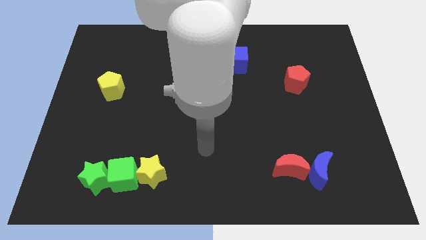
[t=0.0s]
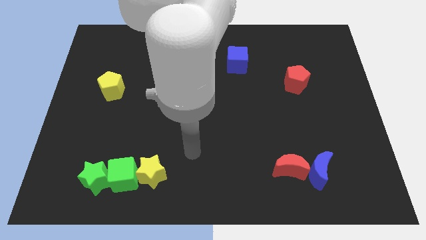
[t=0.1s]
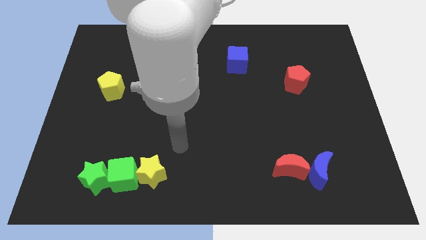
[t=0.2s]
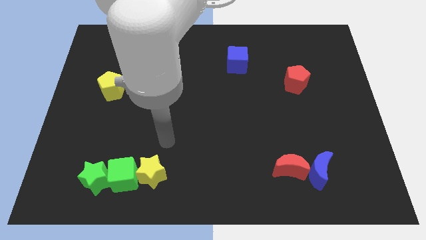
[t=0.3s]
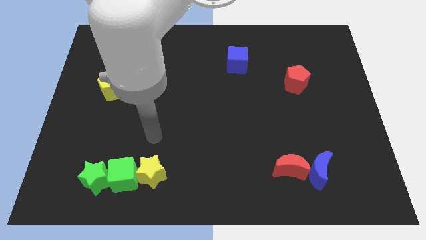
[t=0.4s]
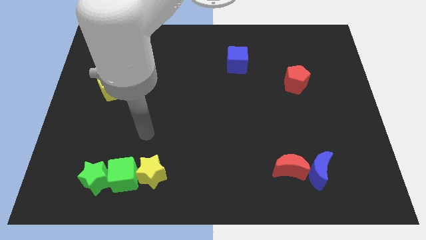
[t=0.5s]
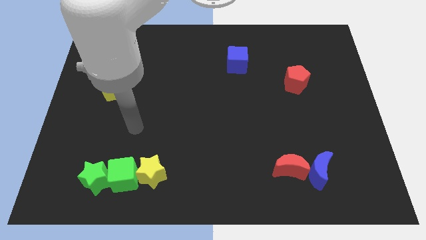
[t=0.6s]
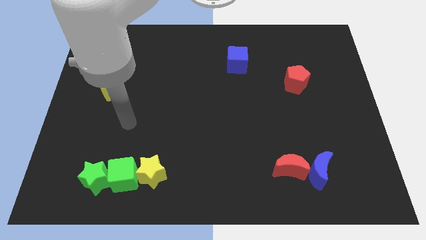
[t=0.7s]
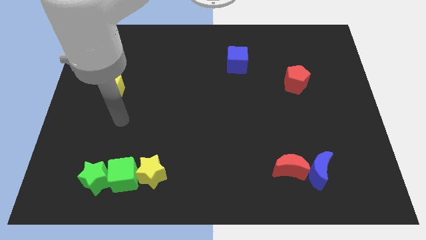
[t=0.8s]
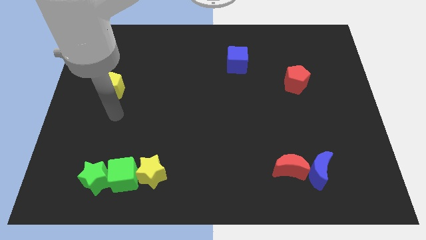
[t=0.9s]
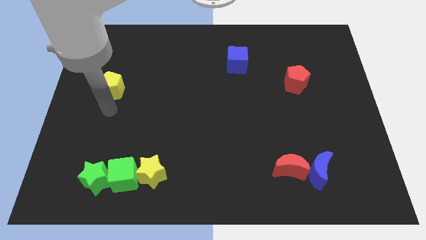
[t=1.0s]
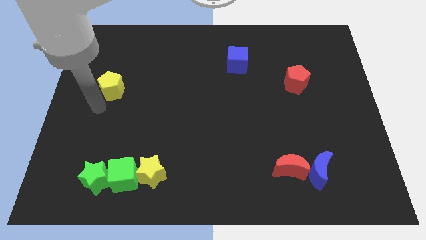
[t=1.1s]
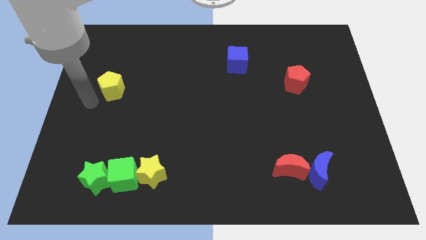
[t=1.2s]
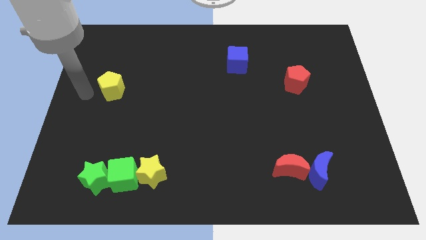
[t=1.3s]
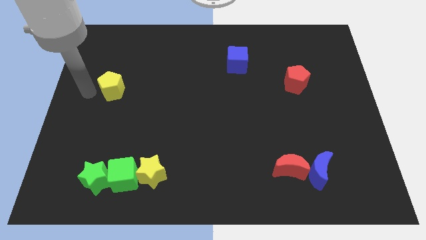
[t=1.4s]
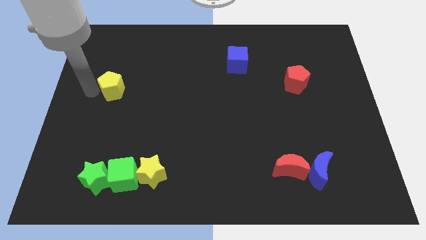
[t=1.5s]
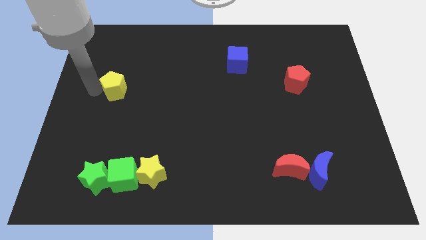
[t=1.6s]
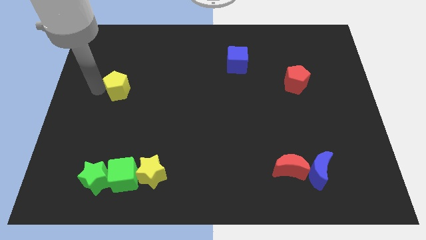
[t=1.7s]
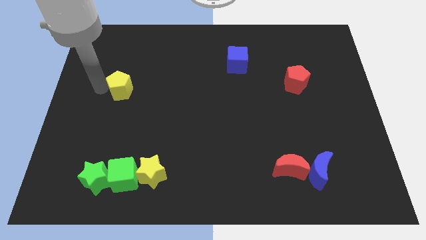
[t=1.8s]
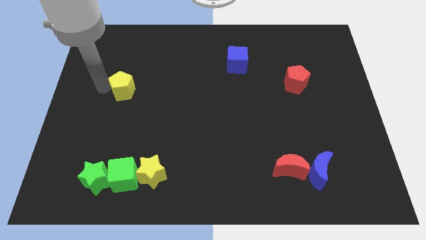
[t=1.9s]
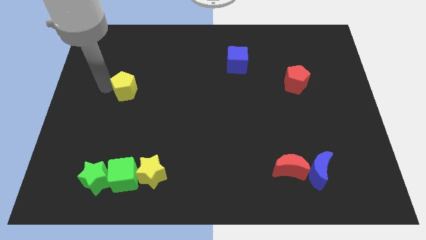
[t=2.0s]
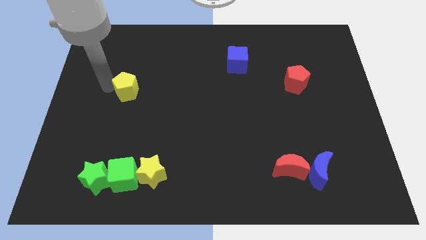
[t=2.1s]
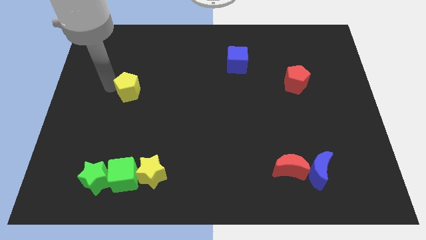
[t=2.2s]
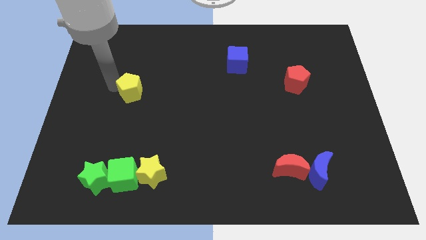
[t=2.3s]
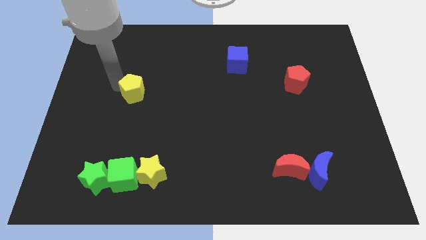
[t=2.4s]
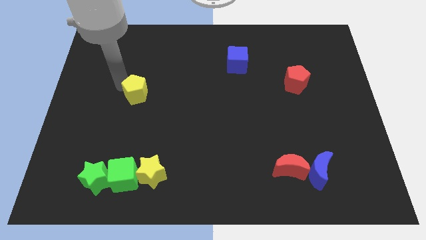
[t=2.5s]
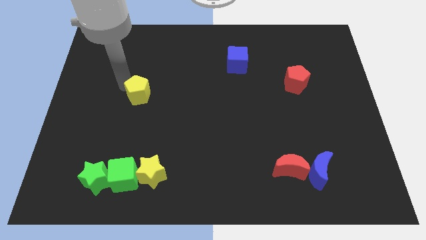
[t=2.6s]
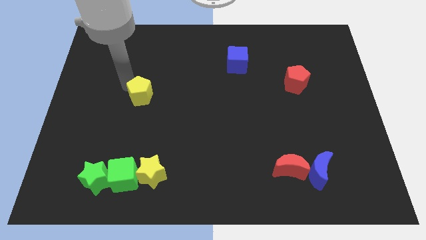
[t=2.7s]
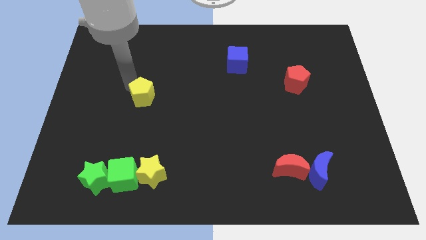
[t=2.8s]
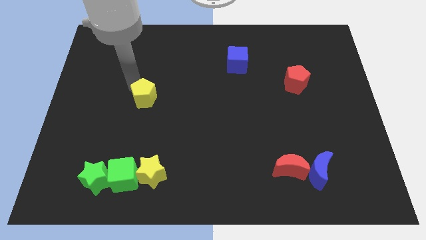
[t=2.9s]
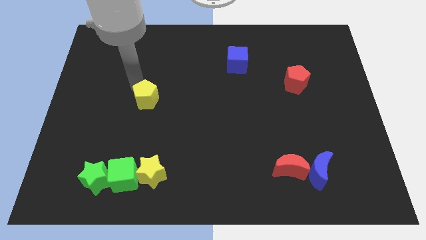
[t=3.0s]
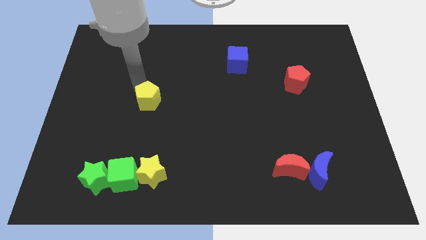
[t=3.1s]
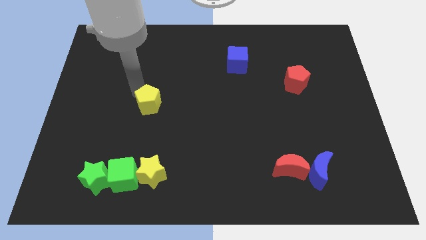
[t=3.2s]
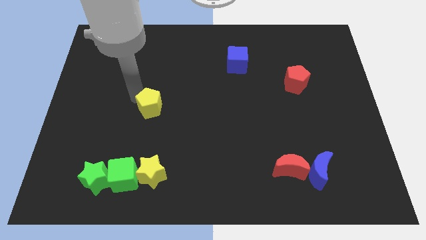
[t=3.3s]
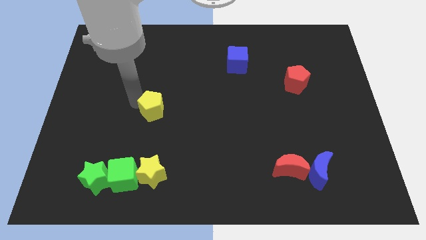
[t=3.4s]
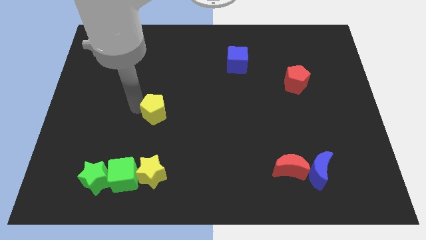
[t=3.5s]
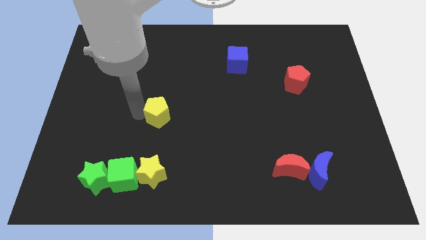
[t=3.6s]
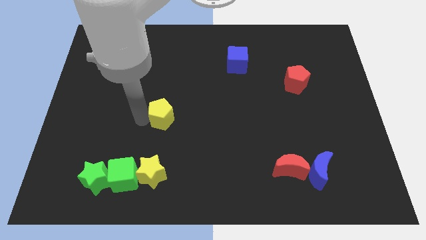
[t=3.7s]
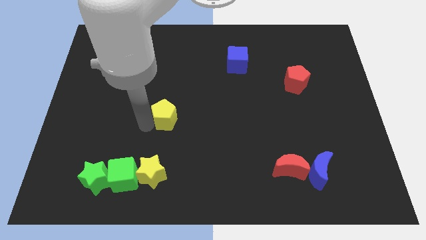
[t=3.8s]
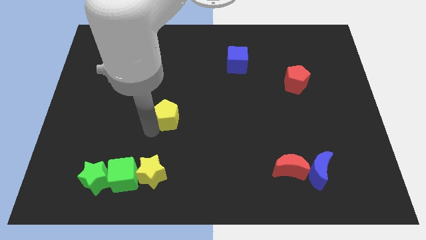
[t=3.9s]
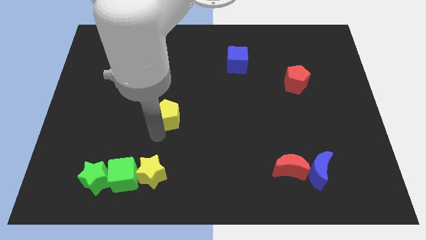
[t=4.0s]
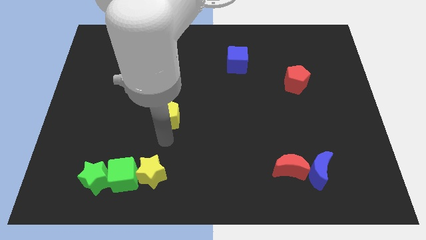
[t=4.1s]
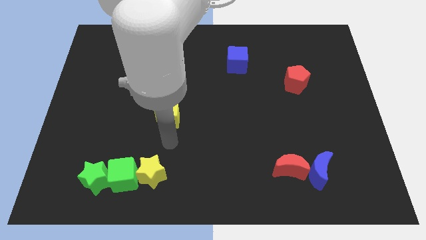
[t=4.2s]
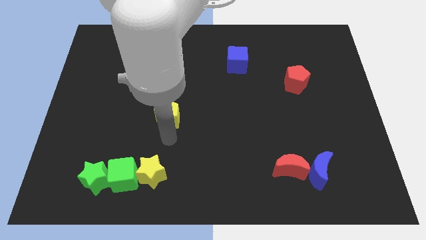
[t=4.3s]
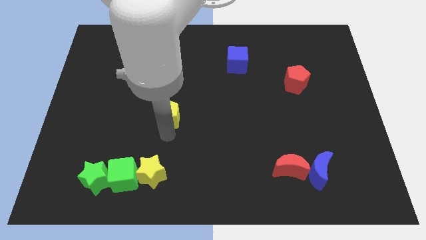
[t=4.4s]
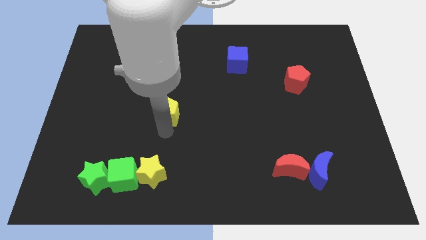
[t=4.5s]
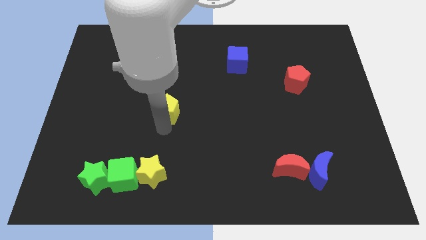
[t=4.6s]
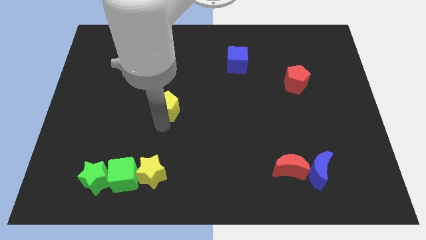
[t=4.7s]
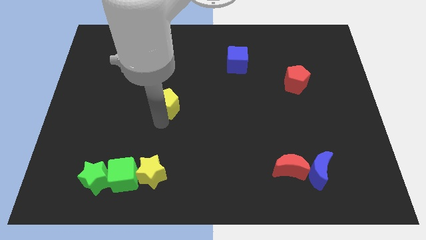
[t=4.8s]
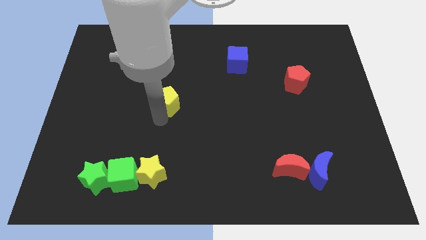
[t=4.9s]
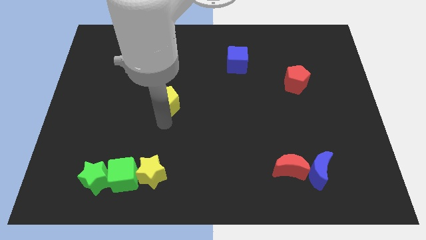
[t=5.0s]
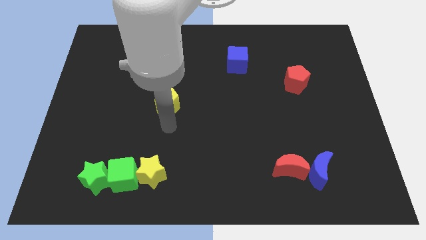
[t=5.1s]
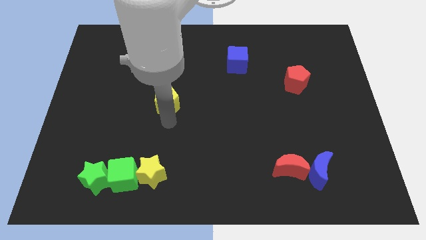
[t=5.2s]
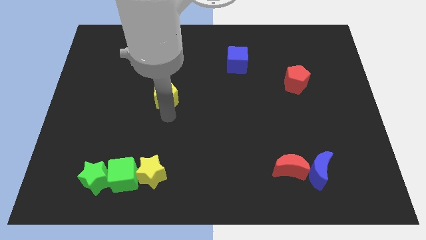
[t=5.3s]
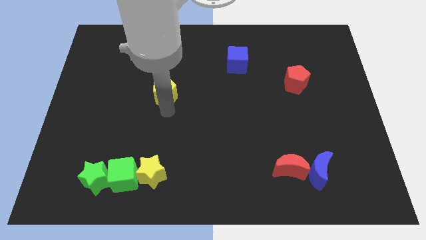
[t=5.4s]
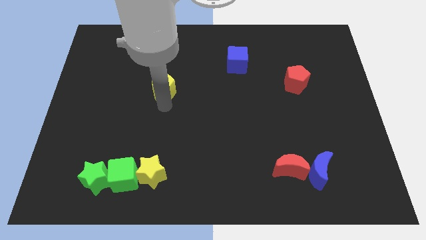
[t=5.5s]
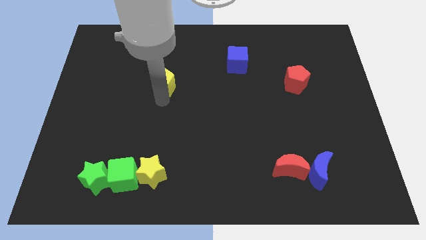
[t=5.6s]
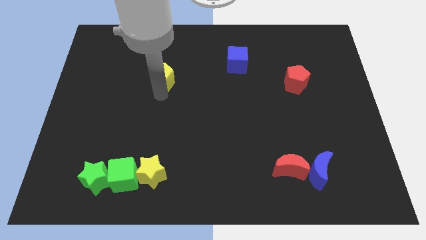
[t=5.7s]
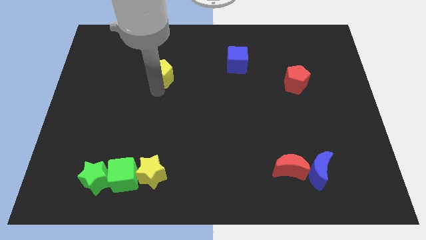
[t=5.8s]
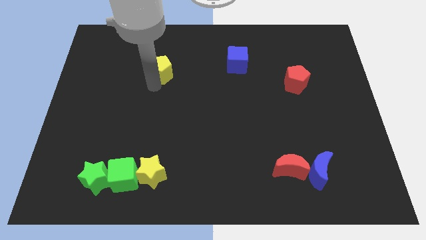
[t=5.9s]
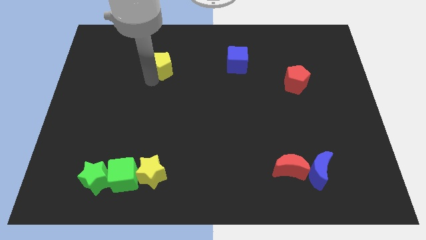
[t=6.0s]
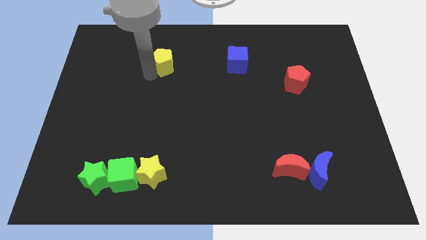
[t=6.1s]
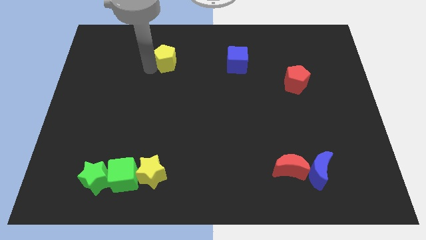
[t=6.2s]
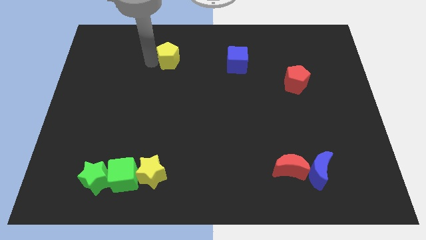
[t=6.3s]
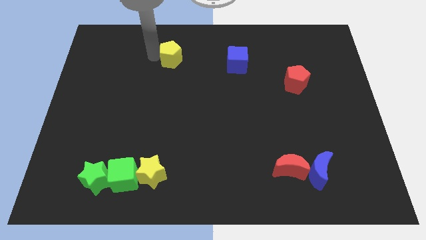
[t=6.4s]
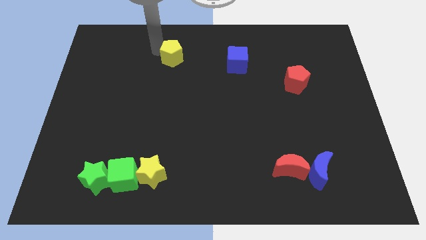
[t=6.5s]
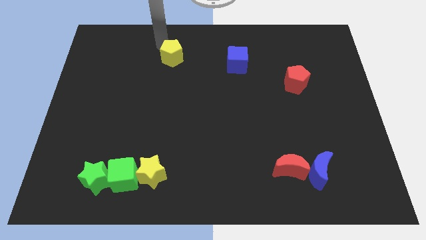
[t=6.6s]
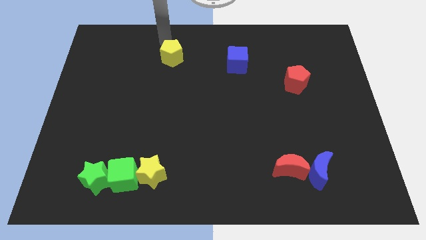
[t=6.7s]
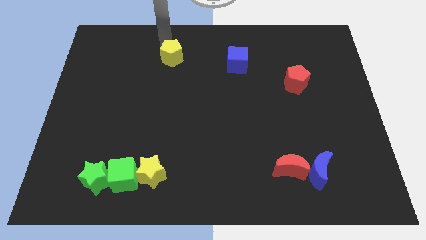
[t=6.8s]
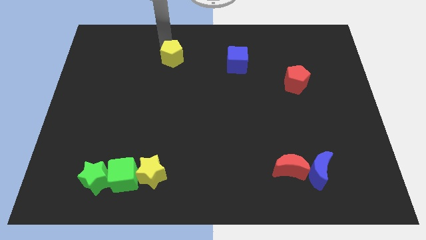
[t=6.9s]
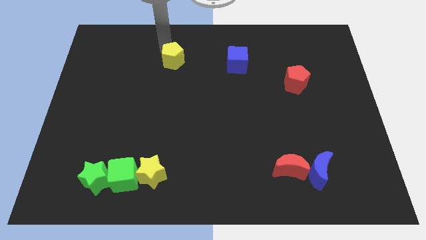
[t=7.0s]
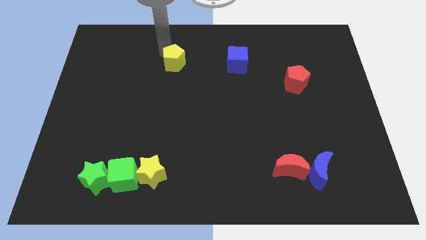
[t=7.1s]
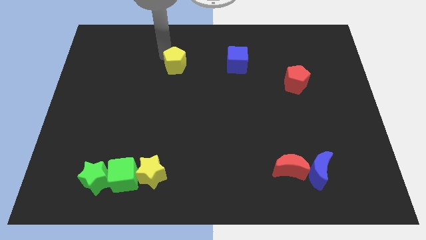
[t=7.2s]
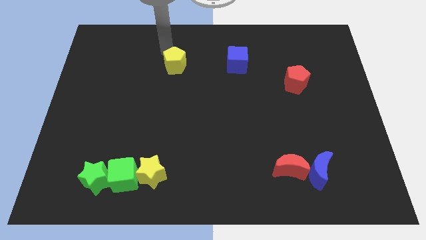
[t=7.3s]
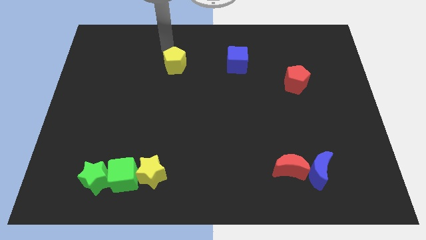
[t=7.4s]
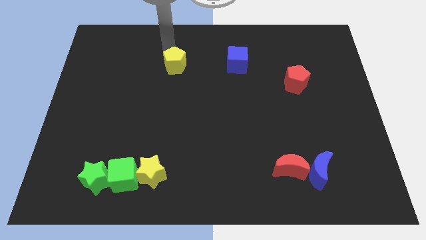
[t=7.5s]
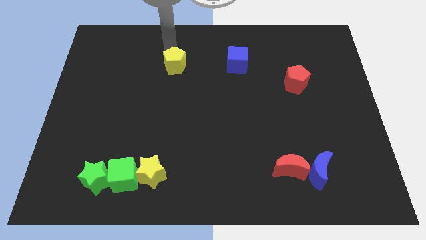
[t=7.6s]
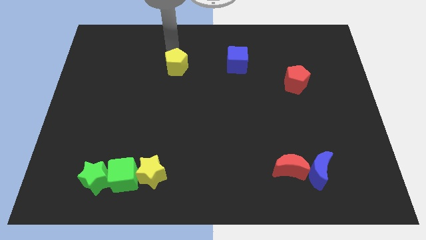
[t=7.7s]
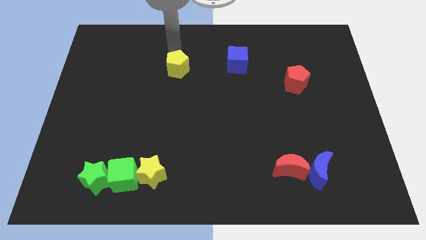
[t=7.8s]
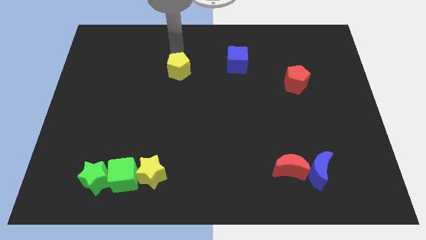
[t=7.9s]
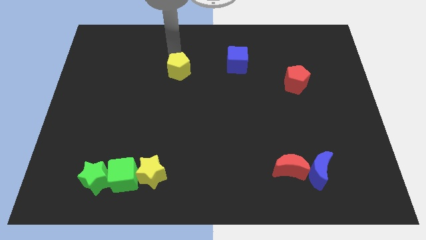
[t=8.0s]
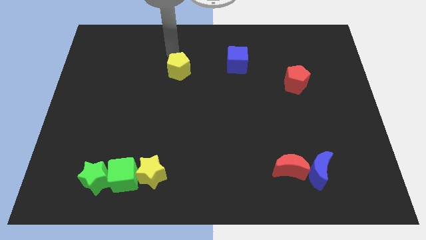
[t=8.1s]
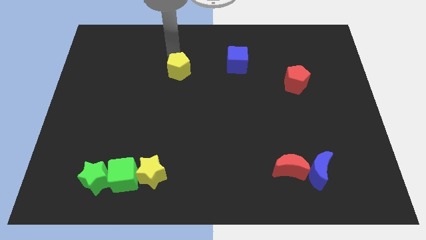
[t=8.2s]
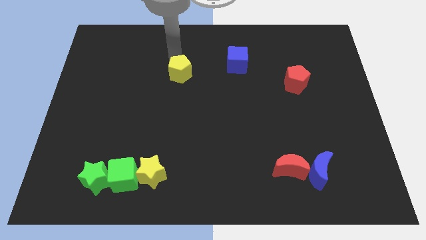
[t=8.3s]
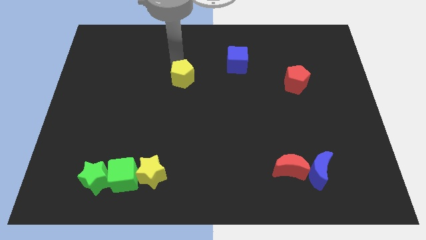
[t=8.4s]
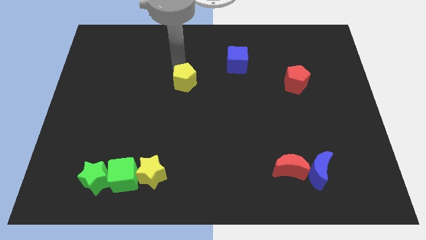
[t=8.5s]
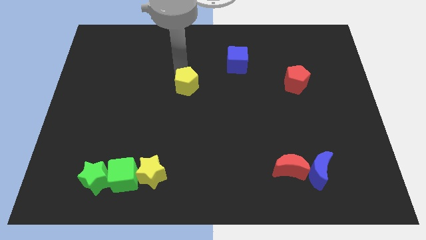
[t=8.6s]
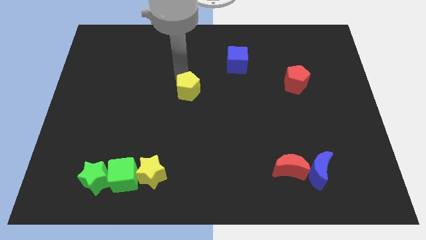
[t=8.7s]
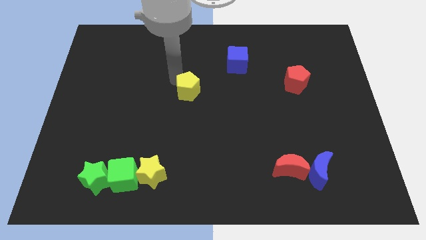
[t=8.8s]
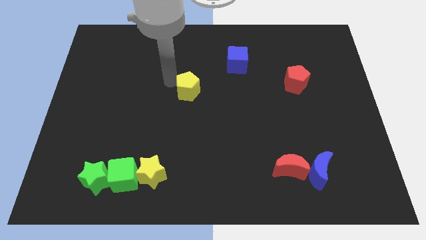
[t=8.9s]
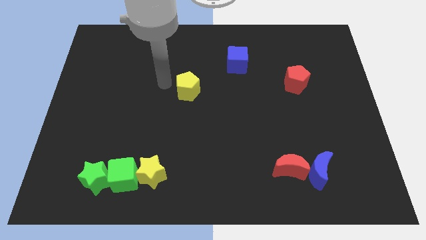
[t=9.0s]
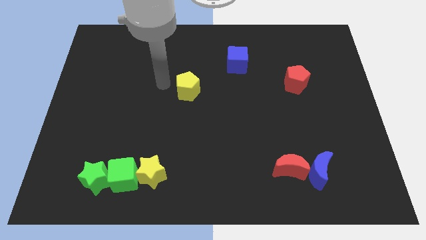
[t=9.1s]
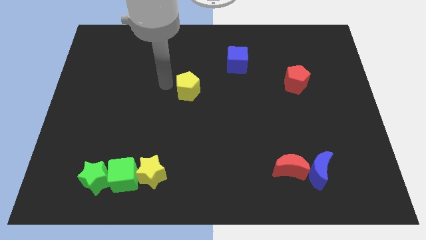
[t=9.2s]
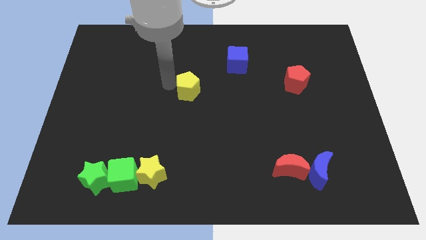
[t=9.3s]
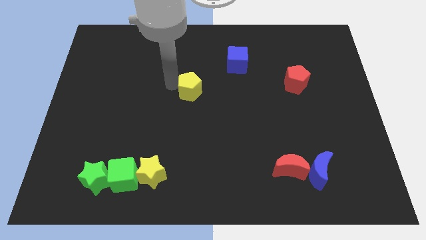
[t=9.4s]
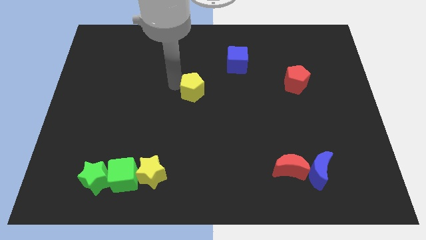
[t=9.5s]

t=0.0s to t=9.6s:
push the yellow pentagon right
